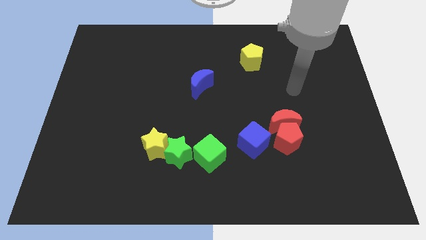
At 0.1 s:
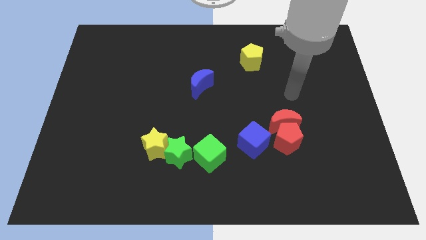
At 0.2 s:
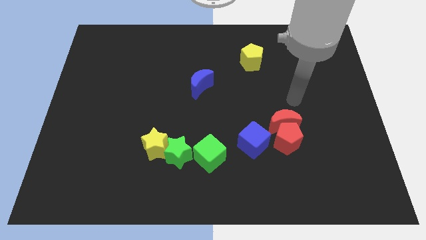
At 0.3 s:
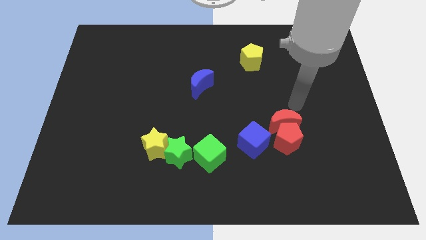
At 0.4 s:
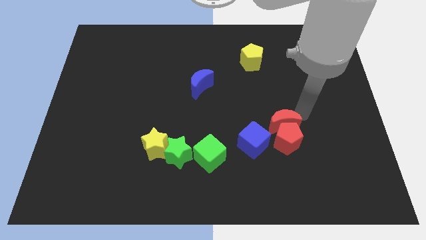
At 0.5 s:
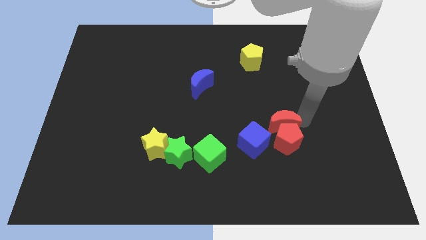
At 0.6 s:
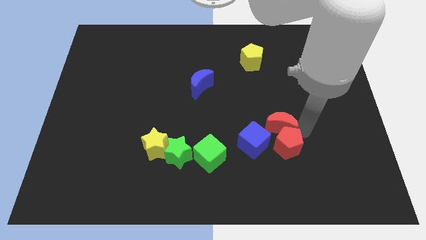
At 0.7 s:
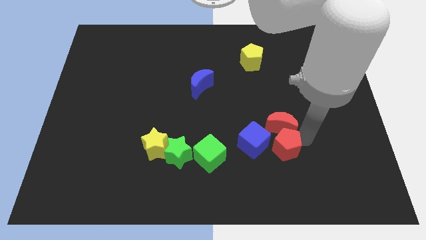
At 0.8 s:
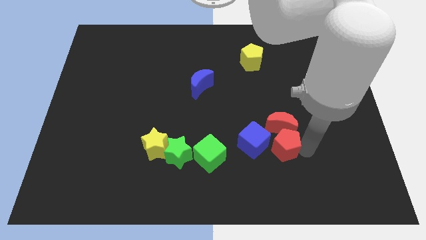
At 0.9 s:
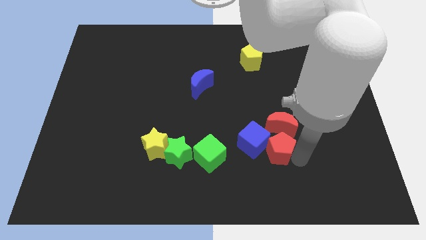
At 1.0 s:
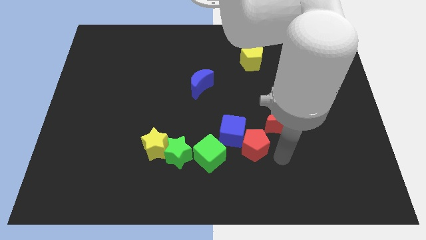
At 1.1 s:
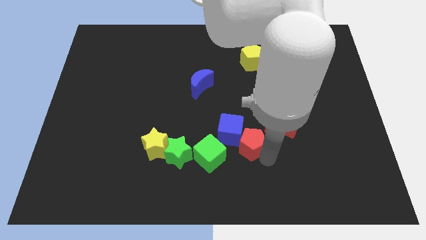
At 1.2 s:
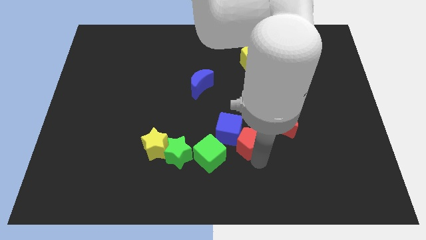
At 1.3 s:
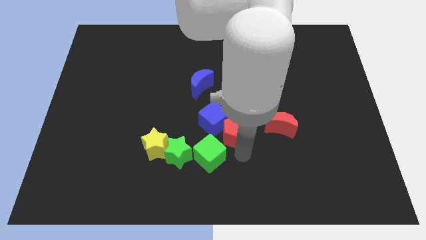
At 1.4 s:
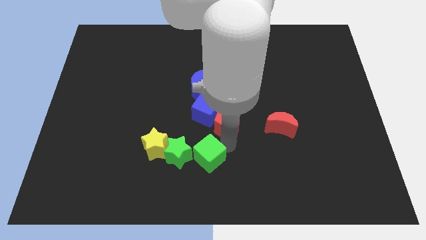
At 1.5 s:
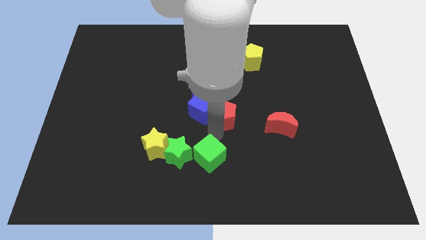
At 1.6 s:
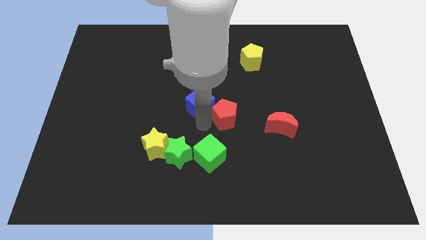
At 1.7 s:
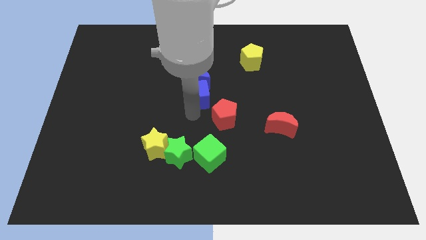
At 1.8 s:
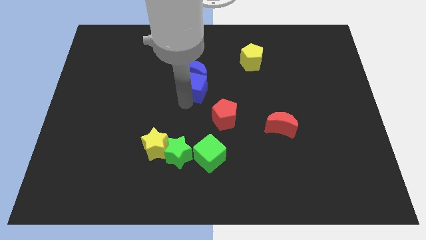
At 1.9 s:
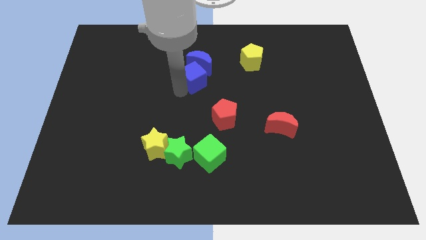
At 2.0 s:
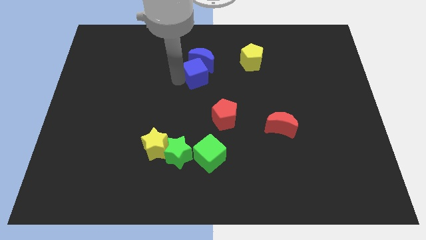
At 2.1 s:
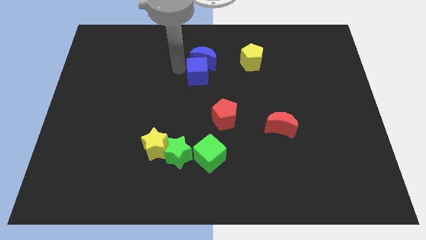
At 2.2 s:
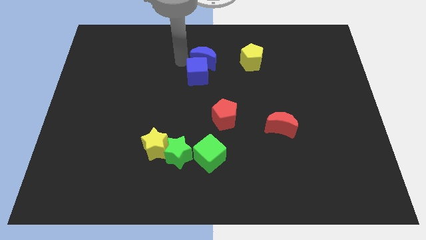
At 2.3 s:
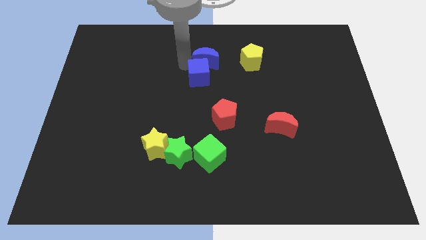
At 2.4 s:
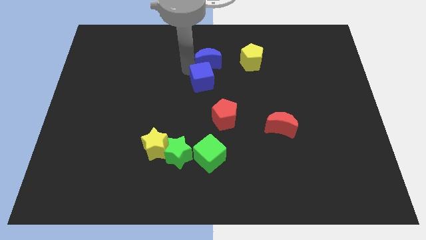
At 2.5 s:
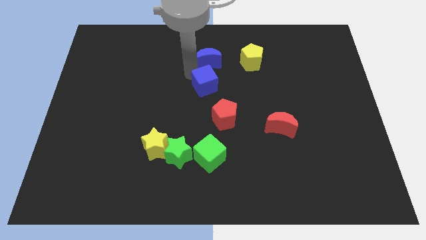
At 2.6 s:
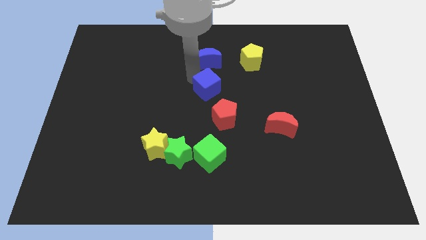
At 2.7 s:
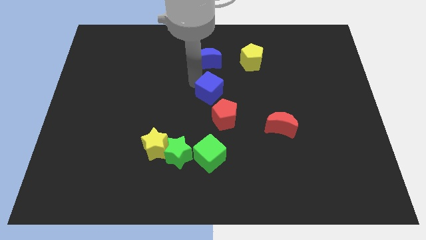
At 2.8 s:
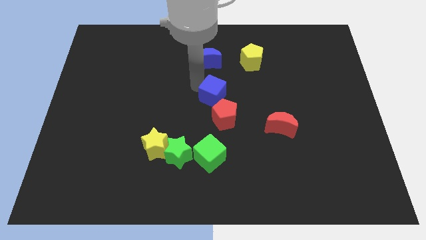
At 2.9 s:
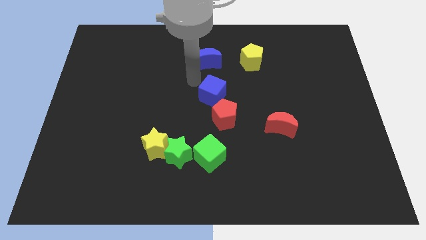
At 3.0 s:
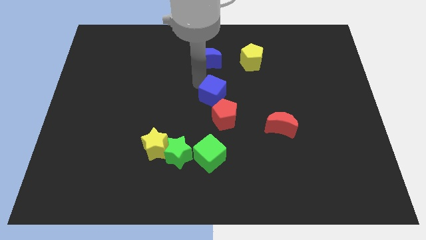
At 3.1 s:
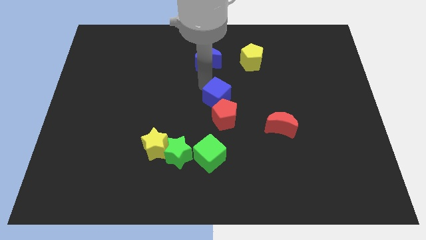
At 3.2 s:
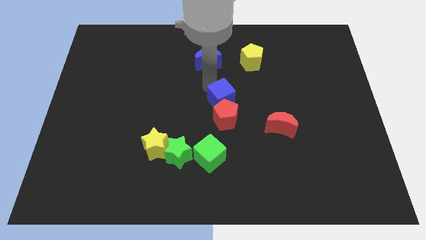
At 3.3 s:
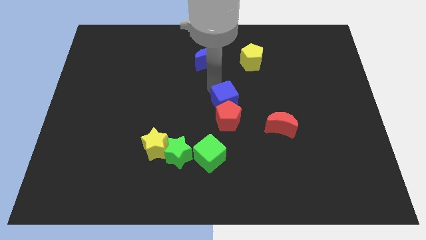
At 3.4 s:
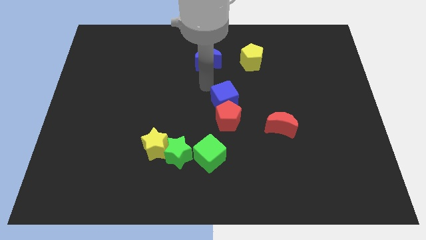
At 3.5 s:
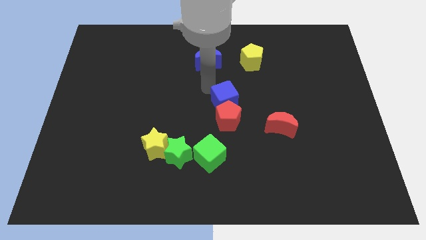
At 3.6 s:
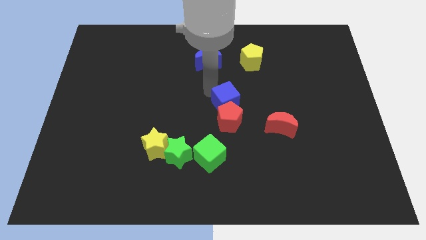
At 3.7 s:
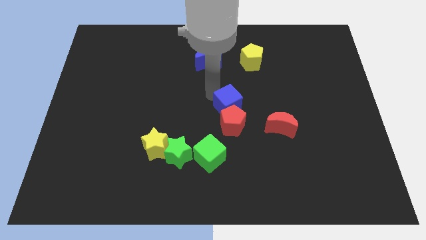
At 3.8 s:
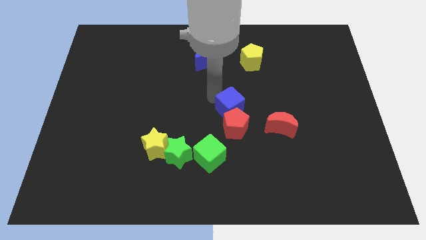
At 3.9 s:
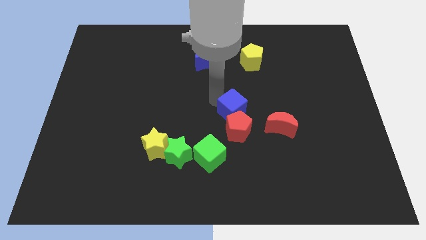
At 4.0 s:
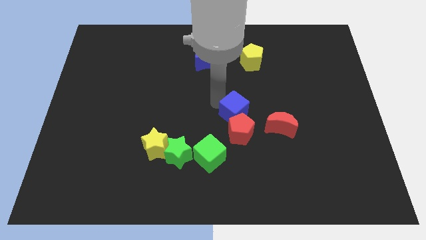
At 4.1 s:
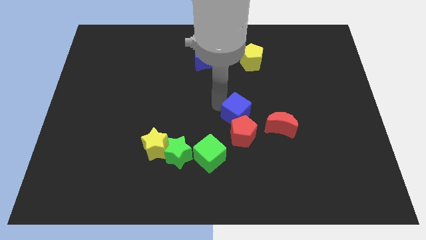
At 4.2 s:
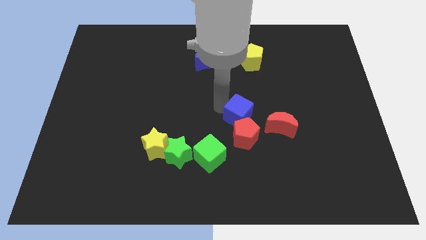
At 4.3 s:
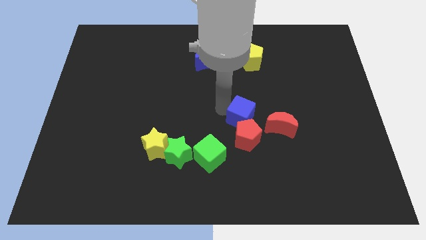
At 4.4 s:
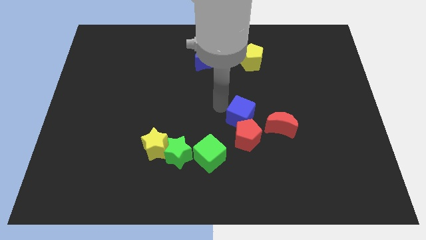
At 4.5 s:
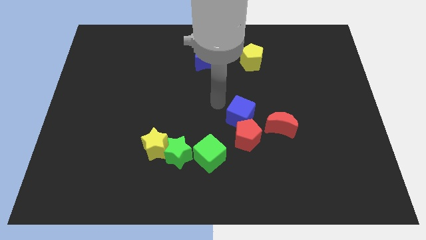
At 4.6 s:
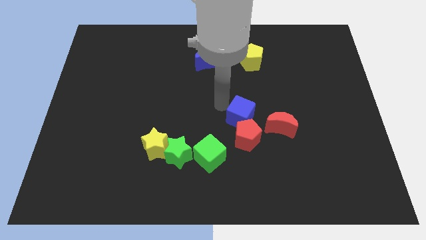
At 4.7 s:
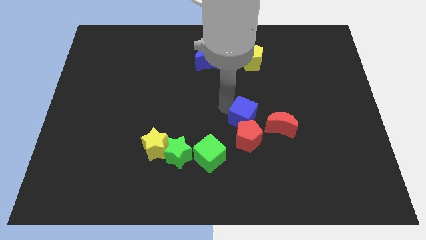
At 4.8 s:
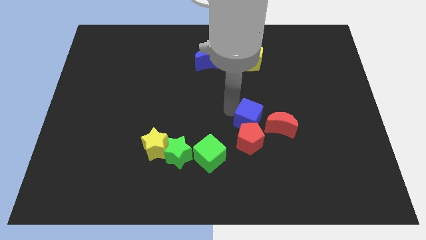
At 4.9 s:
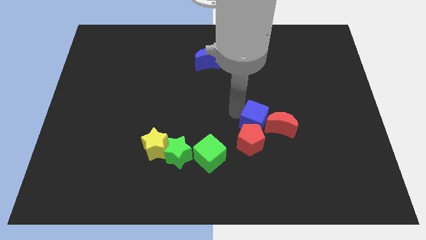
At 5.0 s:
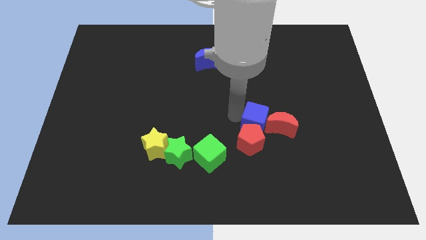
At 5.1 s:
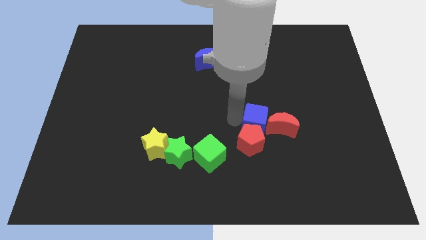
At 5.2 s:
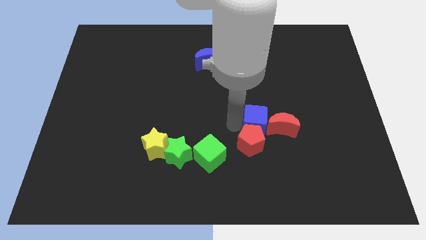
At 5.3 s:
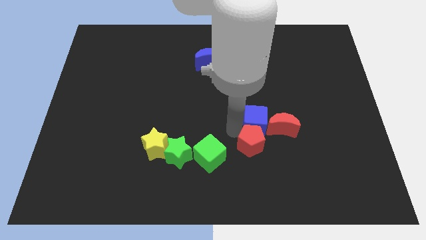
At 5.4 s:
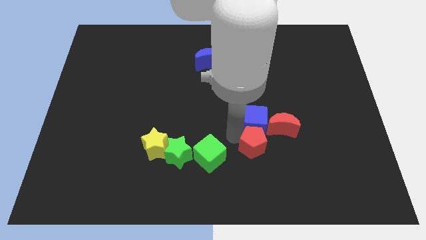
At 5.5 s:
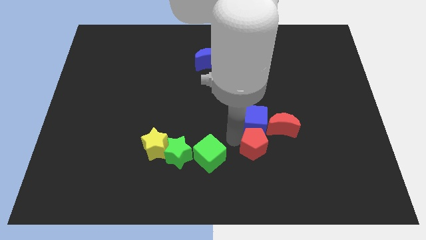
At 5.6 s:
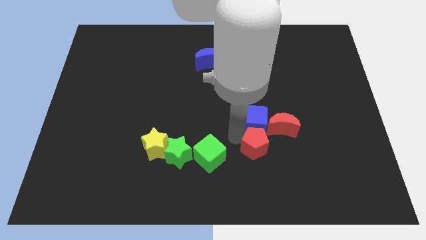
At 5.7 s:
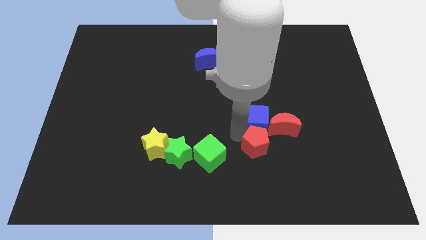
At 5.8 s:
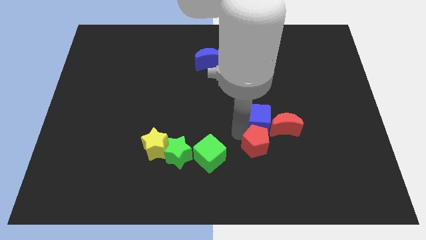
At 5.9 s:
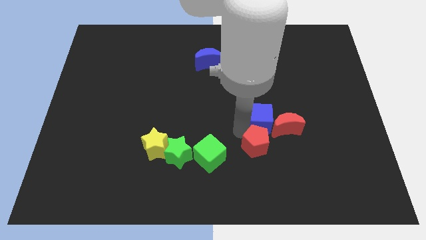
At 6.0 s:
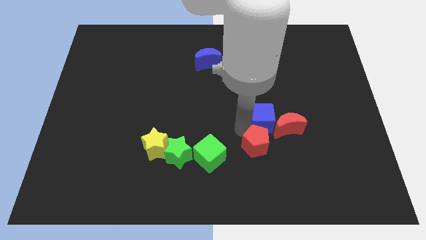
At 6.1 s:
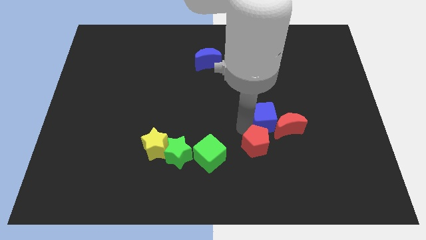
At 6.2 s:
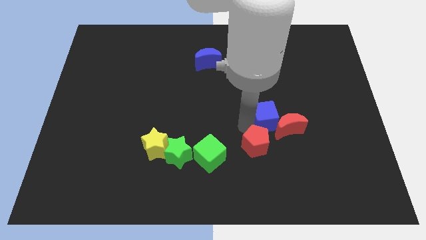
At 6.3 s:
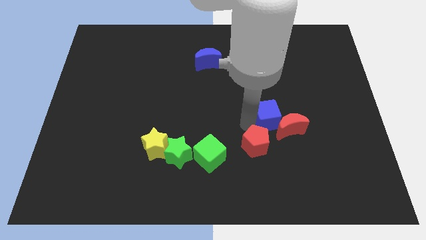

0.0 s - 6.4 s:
move the blue cube a bit upwards and to the right diagonally

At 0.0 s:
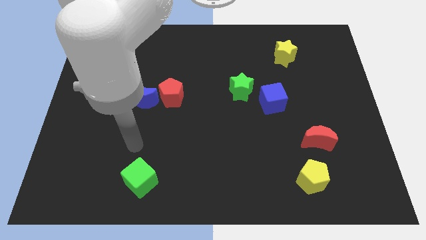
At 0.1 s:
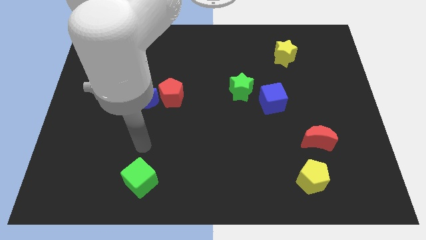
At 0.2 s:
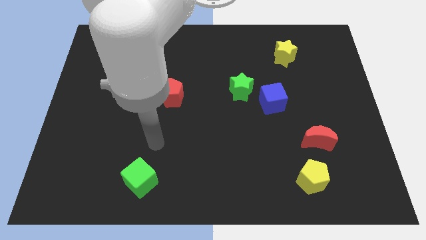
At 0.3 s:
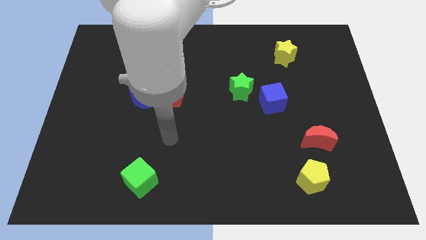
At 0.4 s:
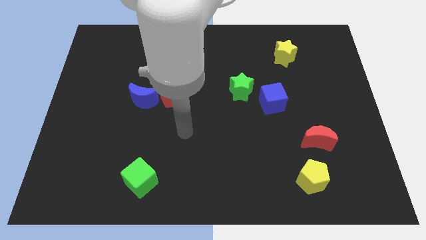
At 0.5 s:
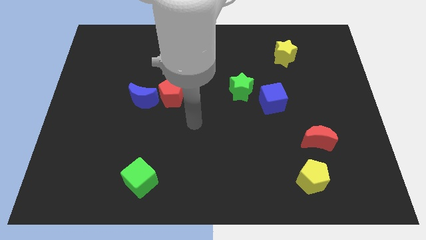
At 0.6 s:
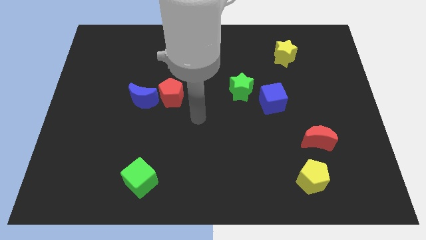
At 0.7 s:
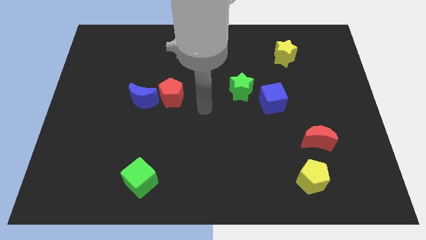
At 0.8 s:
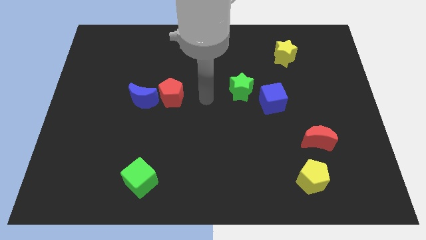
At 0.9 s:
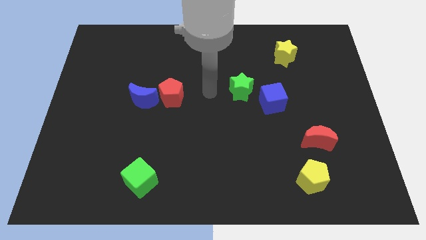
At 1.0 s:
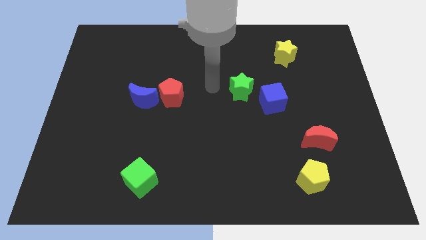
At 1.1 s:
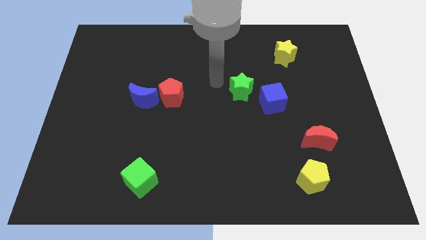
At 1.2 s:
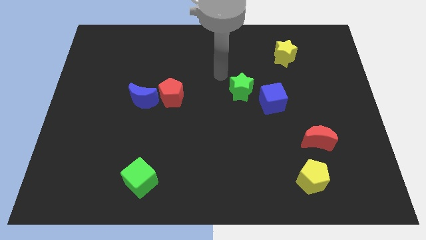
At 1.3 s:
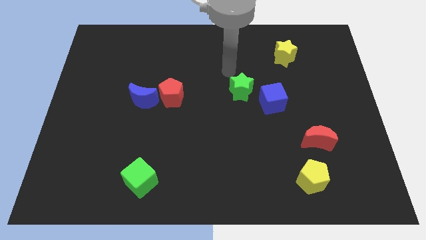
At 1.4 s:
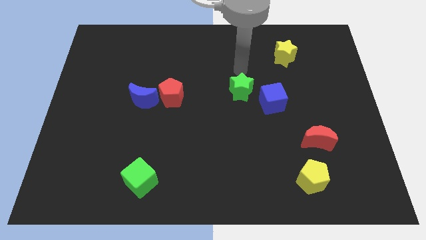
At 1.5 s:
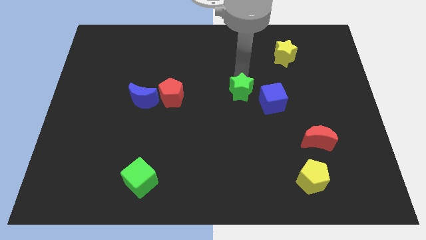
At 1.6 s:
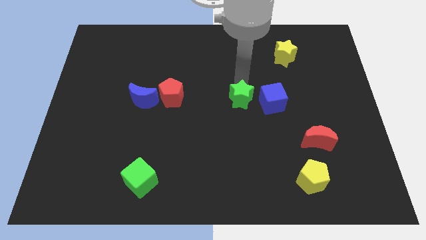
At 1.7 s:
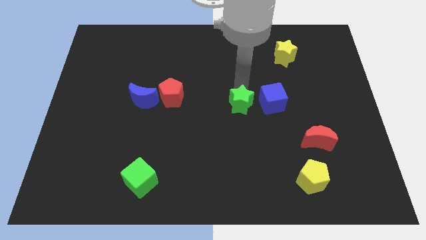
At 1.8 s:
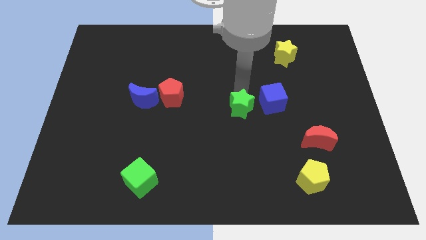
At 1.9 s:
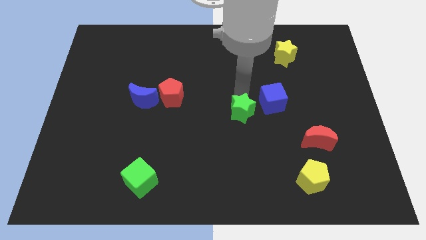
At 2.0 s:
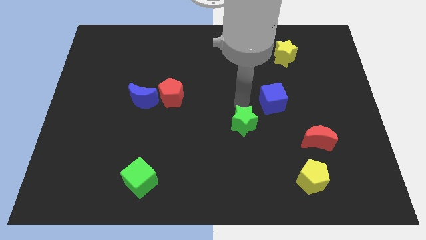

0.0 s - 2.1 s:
move the green star down slightly
